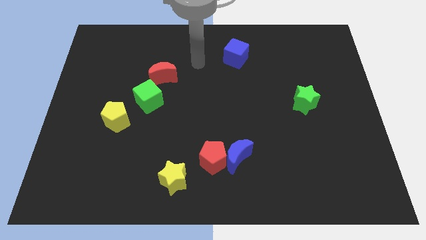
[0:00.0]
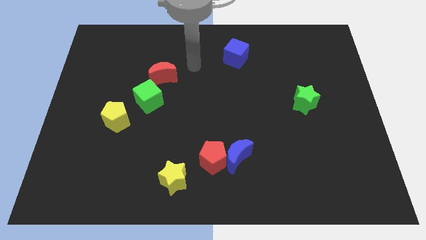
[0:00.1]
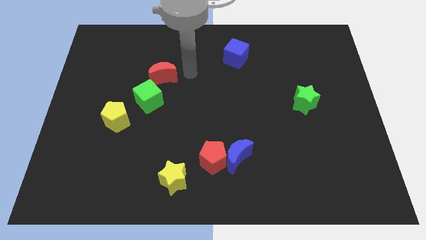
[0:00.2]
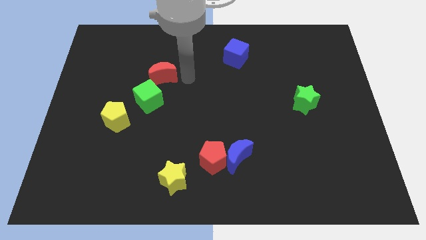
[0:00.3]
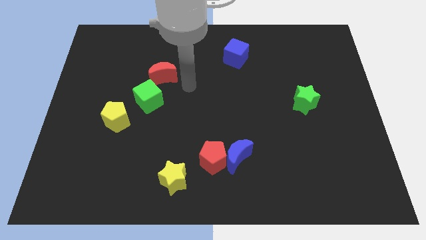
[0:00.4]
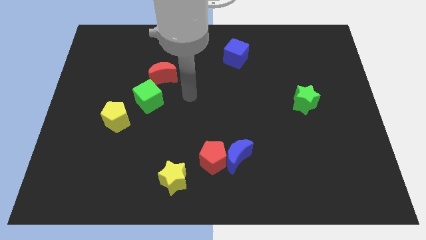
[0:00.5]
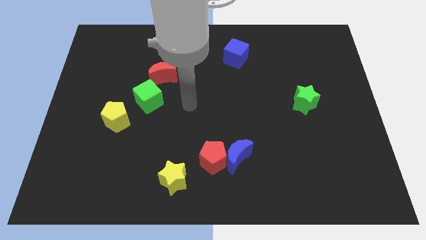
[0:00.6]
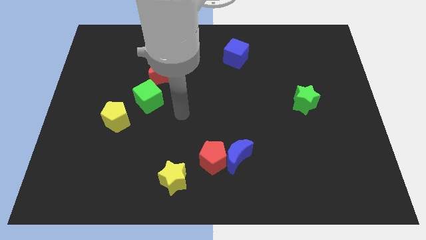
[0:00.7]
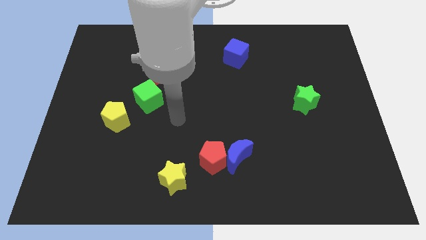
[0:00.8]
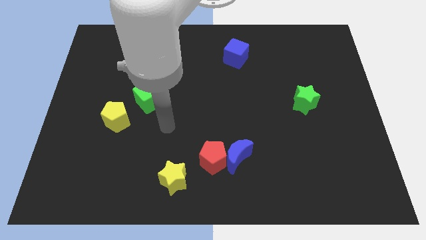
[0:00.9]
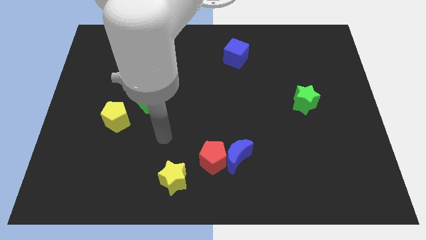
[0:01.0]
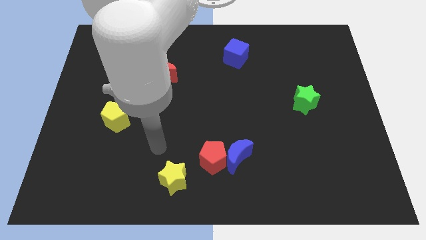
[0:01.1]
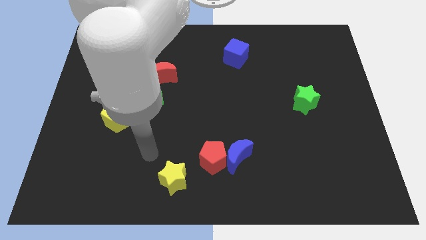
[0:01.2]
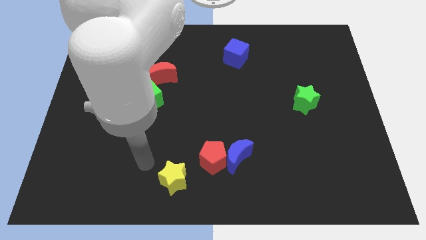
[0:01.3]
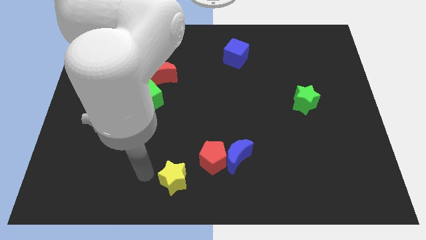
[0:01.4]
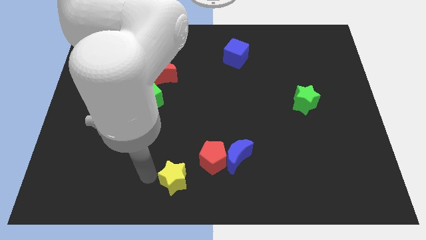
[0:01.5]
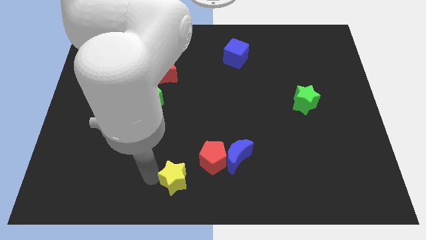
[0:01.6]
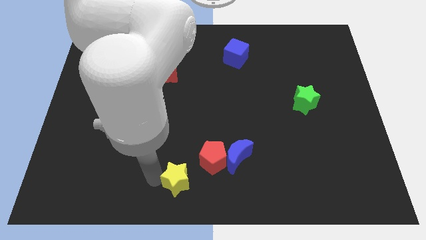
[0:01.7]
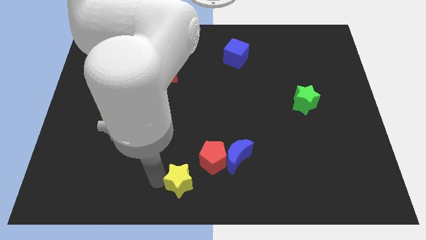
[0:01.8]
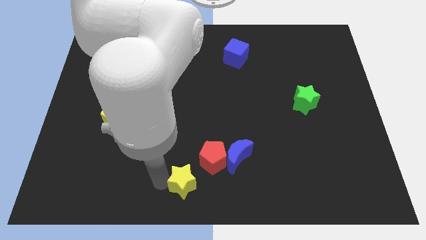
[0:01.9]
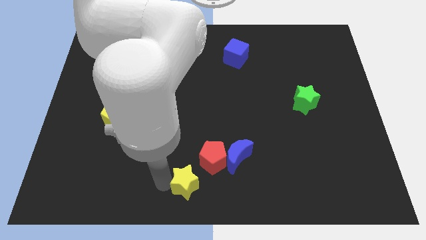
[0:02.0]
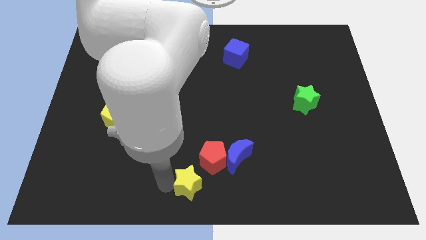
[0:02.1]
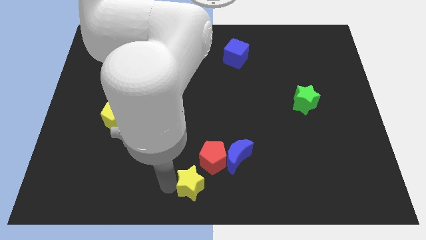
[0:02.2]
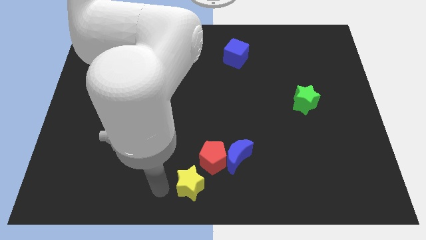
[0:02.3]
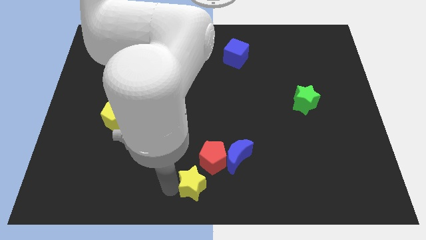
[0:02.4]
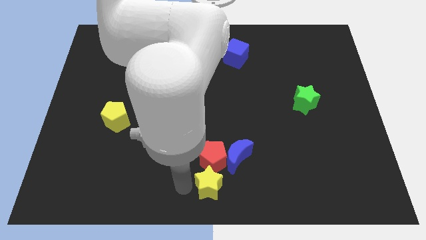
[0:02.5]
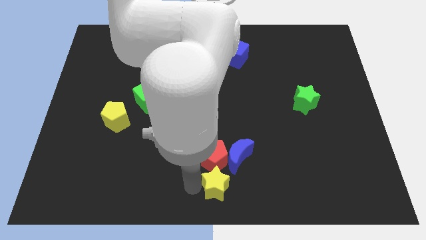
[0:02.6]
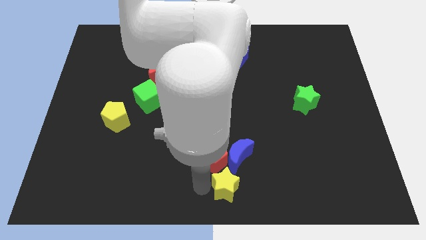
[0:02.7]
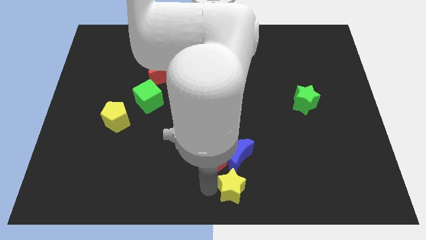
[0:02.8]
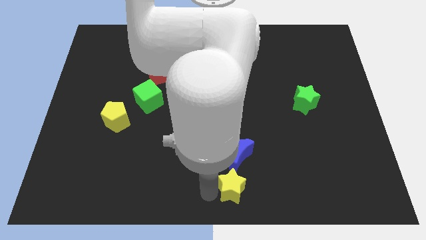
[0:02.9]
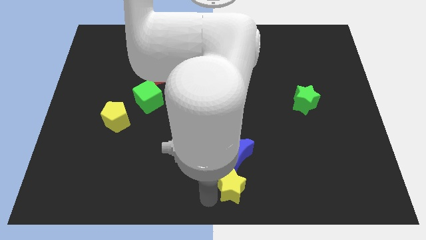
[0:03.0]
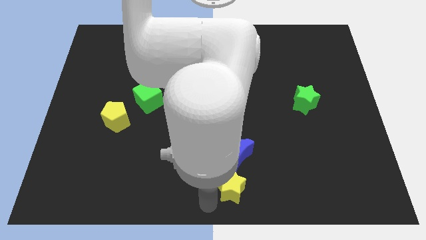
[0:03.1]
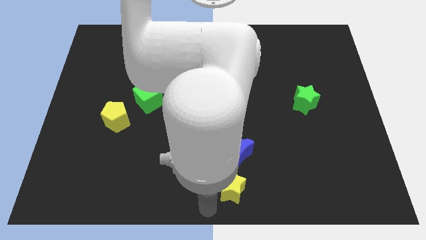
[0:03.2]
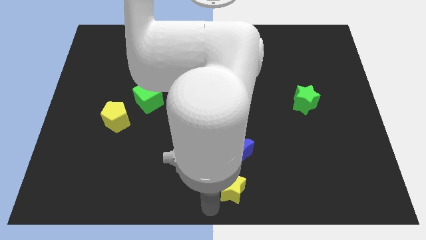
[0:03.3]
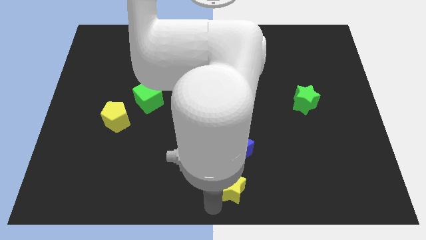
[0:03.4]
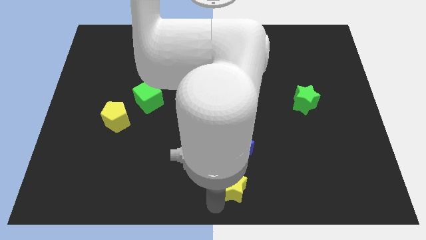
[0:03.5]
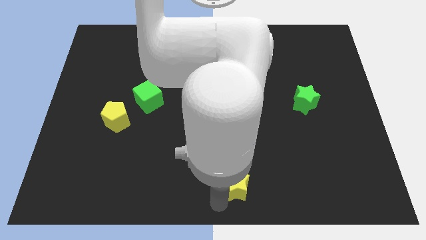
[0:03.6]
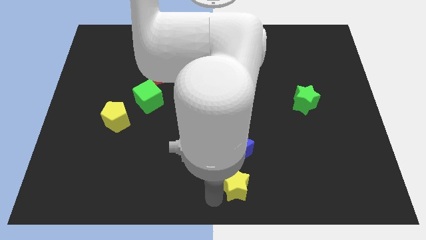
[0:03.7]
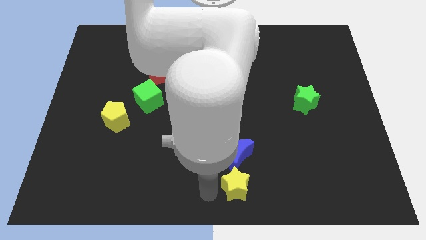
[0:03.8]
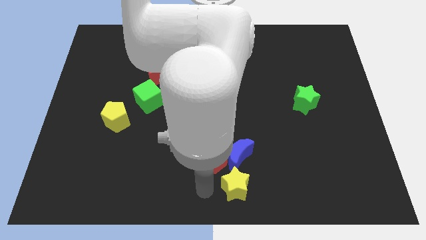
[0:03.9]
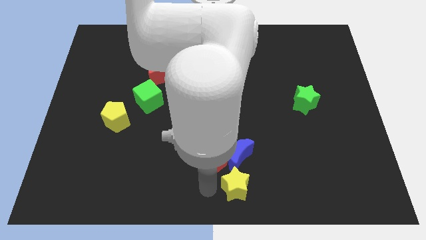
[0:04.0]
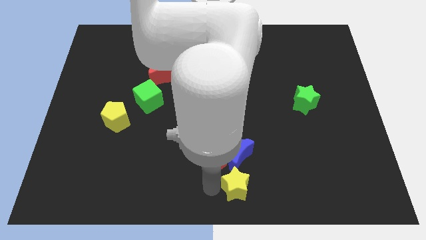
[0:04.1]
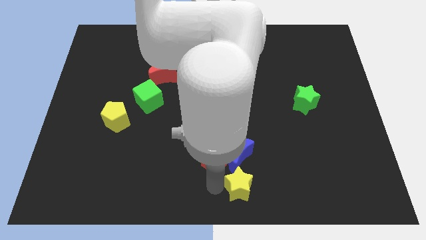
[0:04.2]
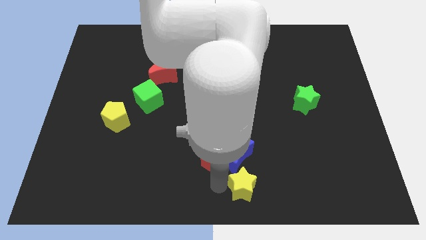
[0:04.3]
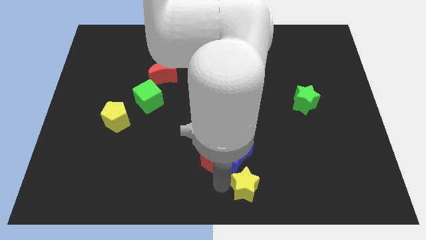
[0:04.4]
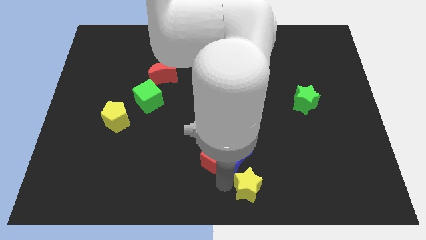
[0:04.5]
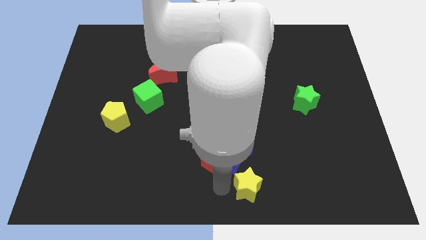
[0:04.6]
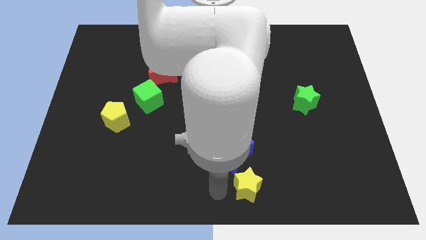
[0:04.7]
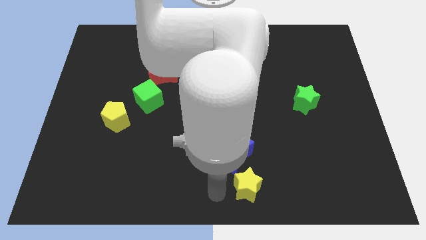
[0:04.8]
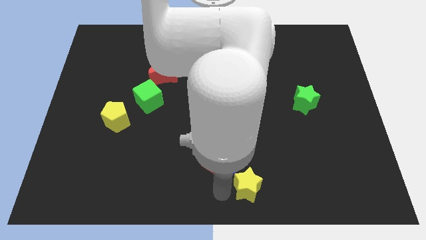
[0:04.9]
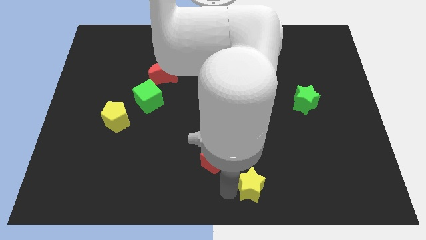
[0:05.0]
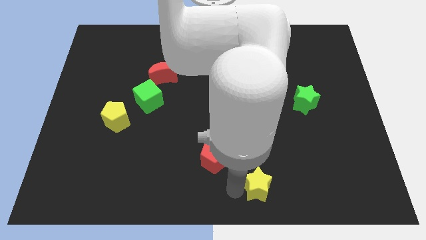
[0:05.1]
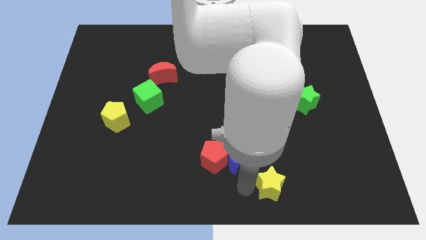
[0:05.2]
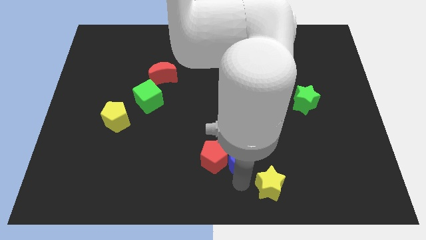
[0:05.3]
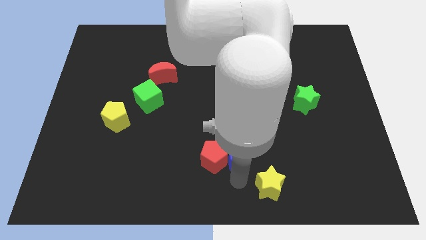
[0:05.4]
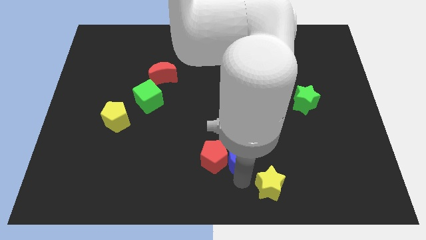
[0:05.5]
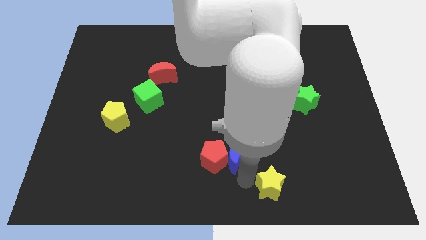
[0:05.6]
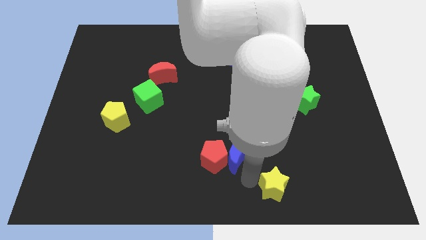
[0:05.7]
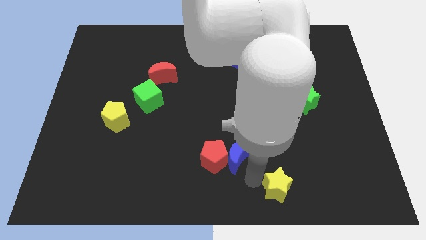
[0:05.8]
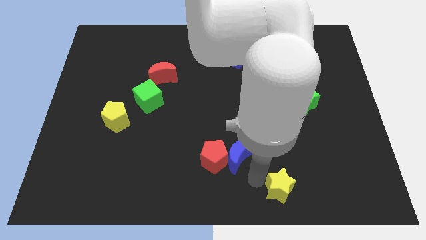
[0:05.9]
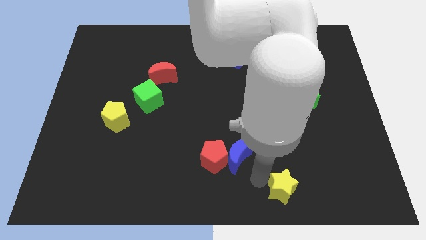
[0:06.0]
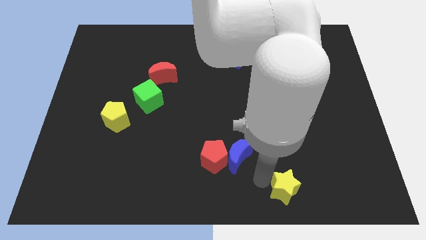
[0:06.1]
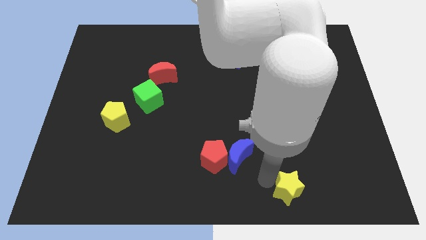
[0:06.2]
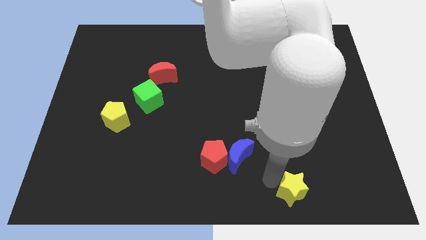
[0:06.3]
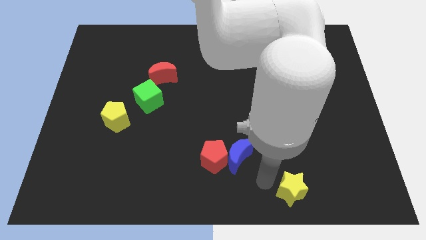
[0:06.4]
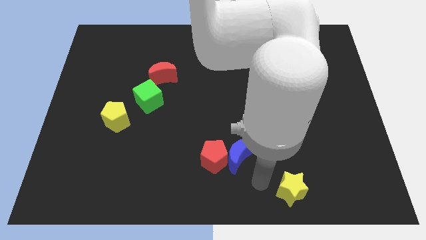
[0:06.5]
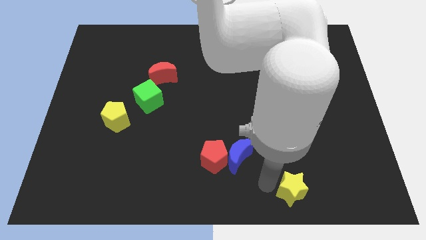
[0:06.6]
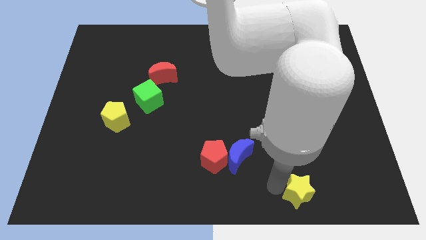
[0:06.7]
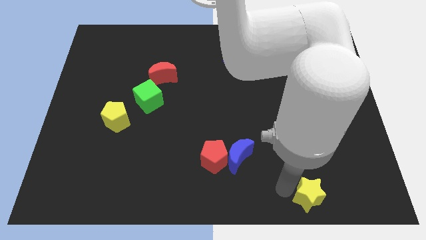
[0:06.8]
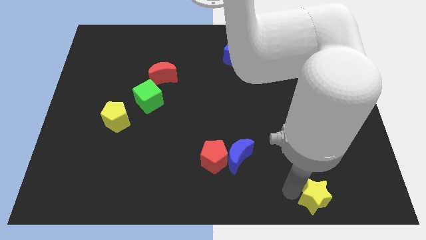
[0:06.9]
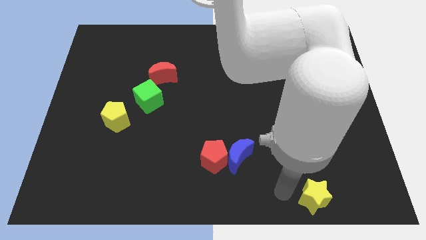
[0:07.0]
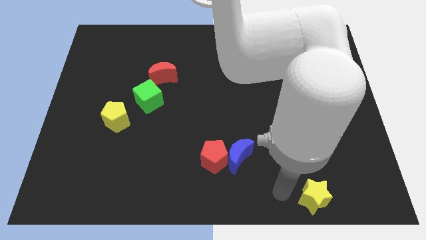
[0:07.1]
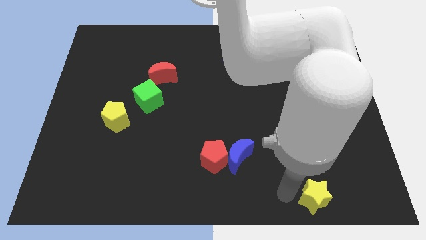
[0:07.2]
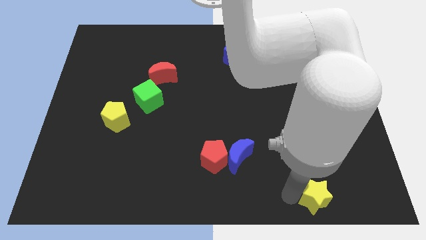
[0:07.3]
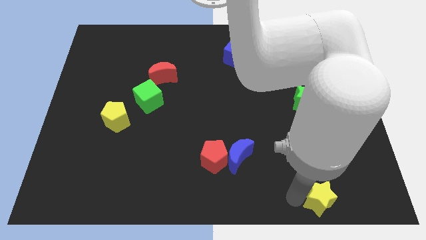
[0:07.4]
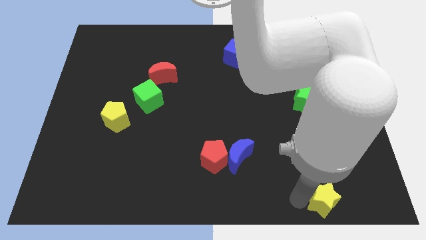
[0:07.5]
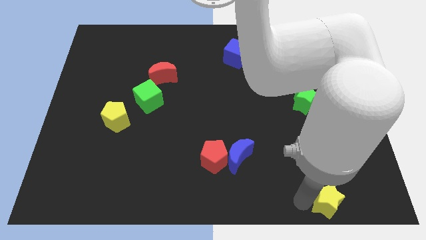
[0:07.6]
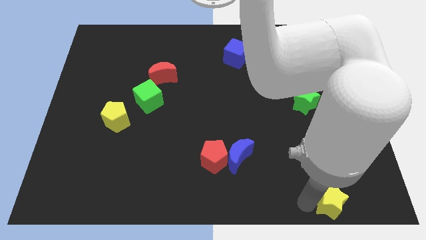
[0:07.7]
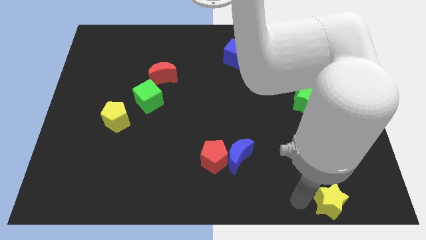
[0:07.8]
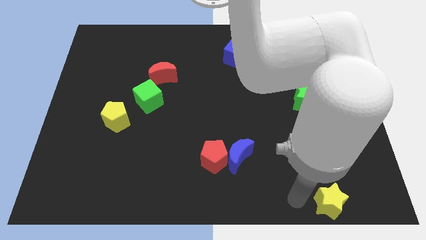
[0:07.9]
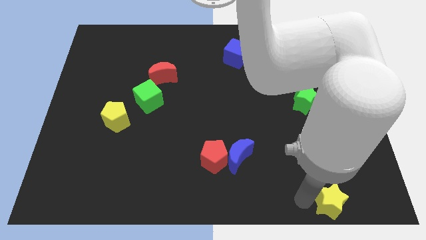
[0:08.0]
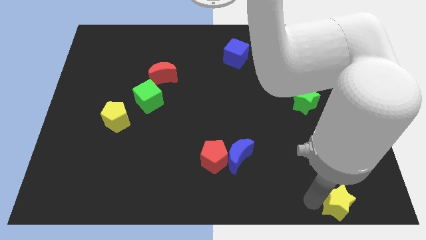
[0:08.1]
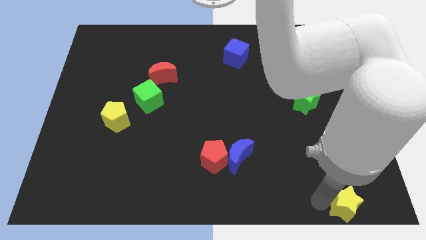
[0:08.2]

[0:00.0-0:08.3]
push the yellow star to the lower right corner
